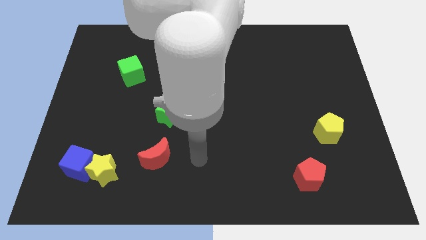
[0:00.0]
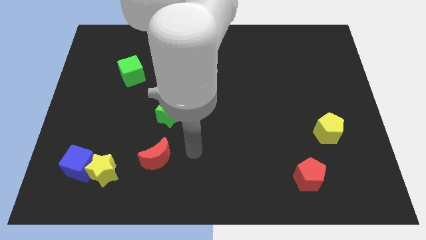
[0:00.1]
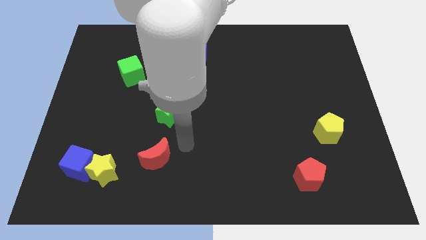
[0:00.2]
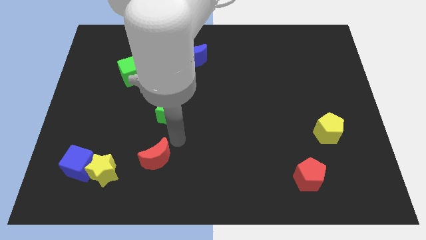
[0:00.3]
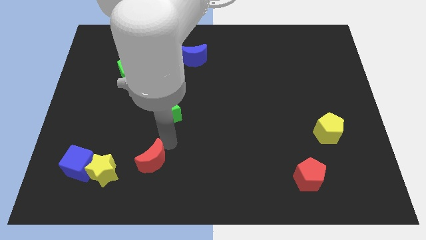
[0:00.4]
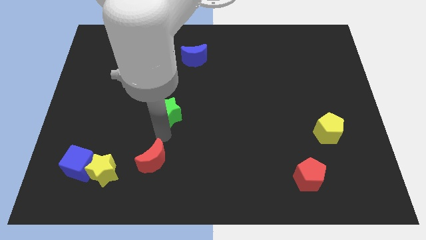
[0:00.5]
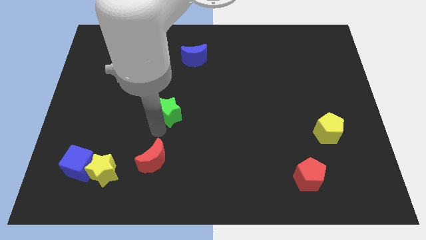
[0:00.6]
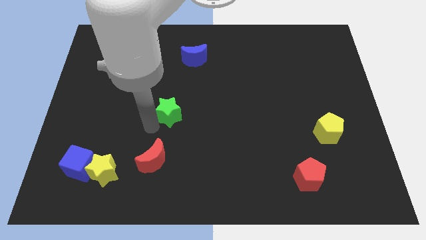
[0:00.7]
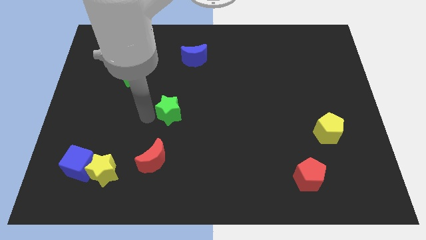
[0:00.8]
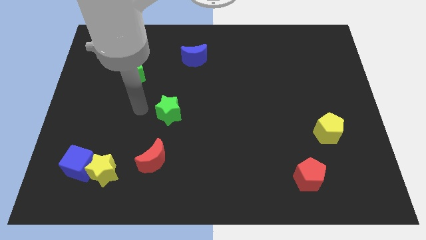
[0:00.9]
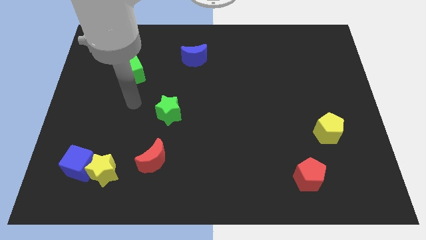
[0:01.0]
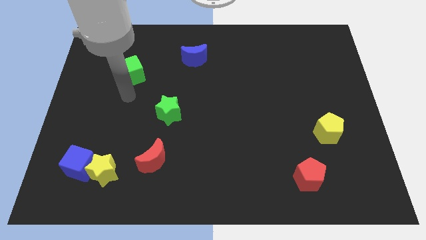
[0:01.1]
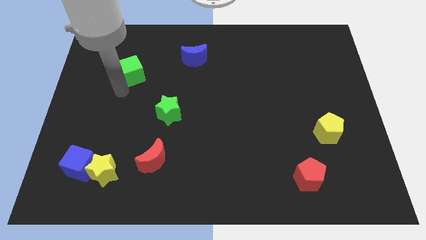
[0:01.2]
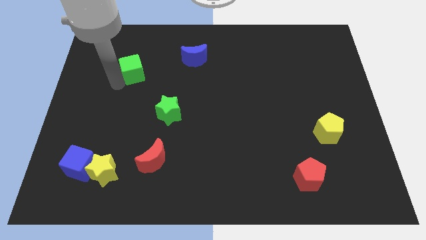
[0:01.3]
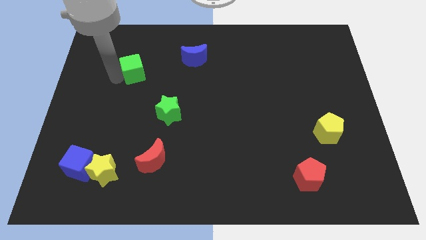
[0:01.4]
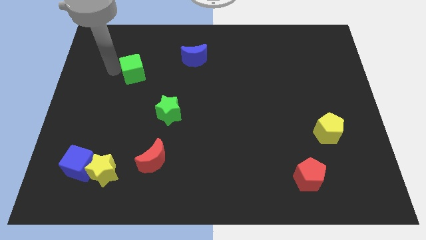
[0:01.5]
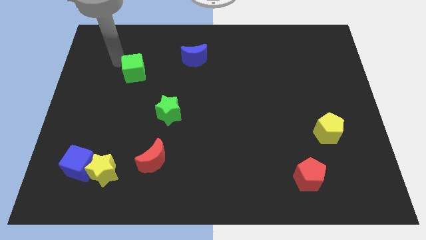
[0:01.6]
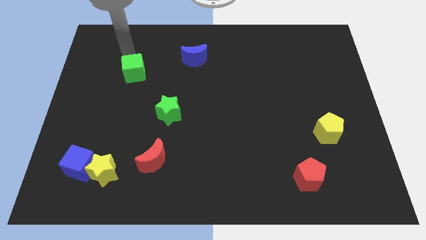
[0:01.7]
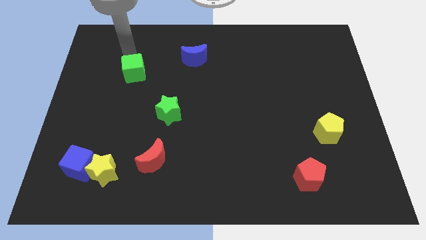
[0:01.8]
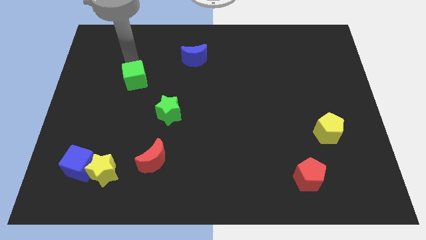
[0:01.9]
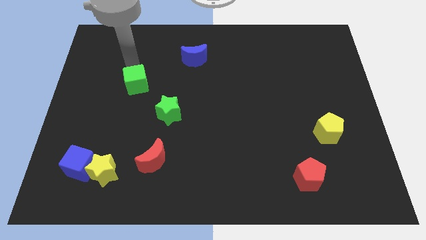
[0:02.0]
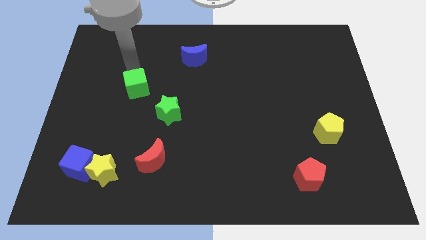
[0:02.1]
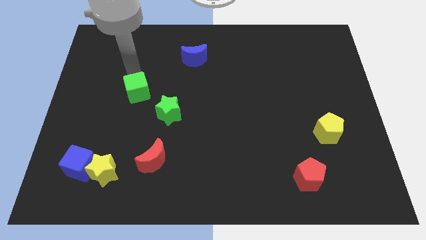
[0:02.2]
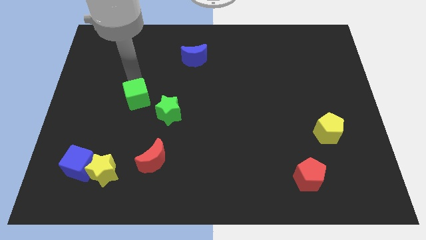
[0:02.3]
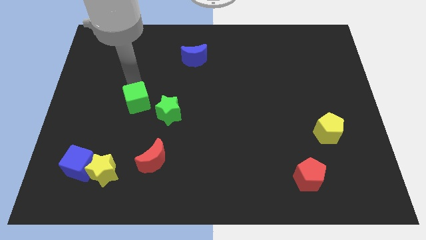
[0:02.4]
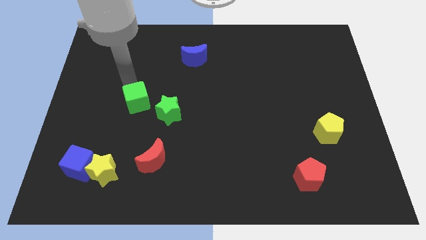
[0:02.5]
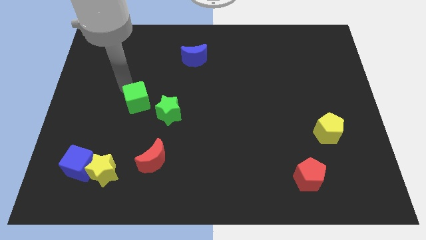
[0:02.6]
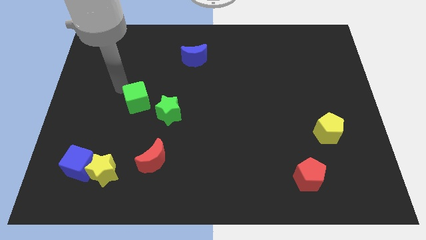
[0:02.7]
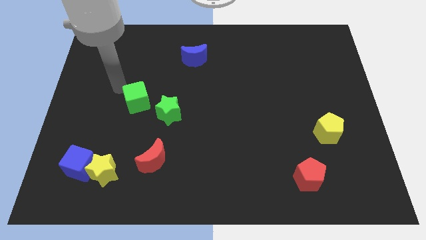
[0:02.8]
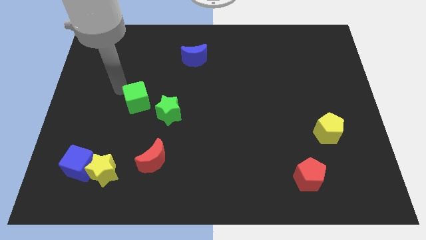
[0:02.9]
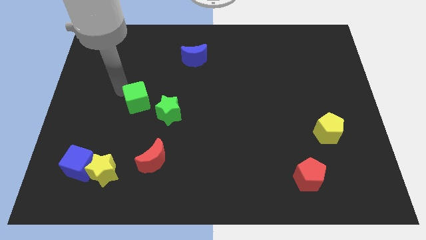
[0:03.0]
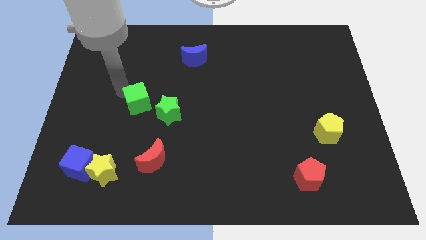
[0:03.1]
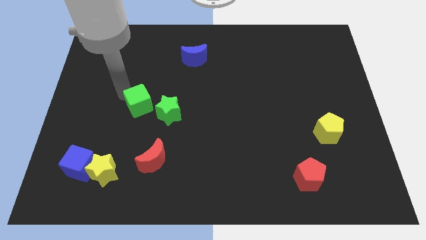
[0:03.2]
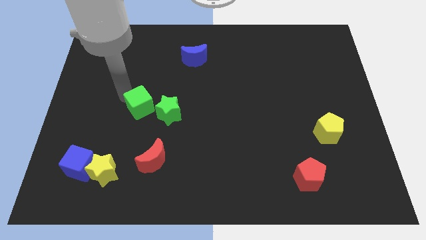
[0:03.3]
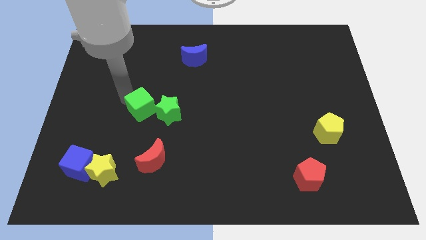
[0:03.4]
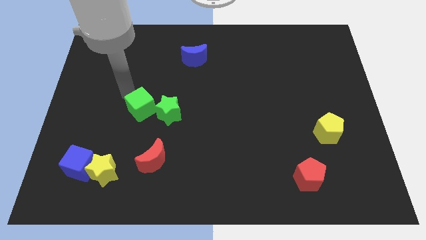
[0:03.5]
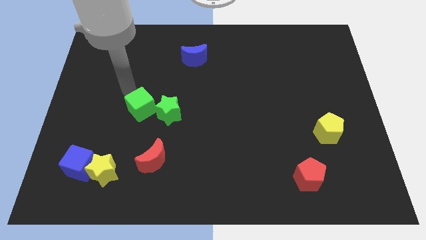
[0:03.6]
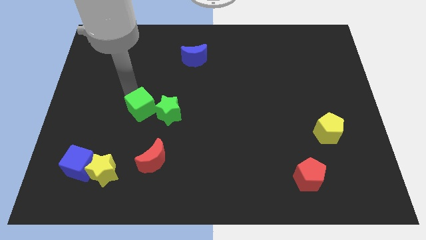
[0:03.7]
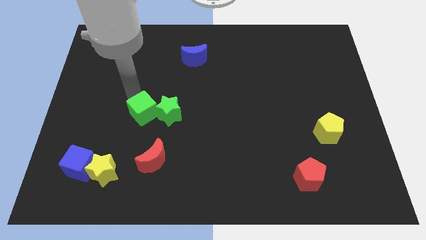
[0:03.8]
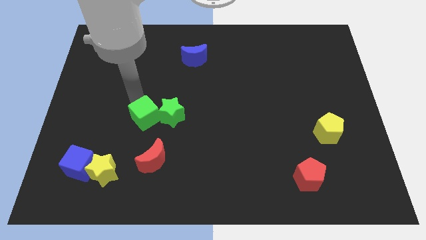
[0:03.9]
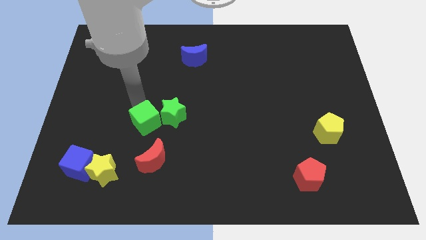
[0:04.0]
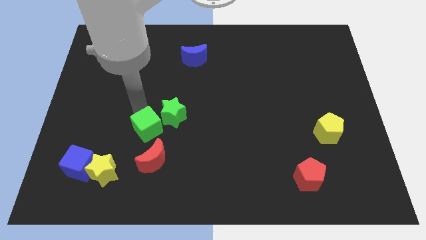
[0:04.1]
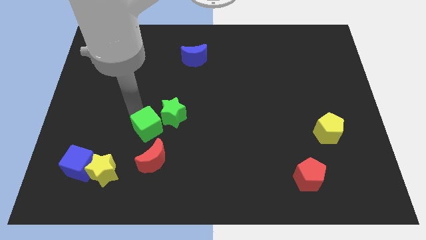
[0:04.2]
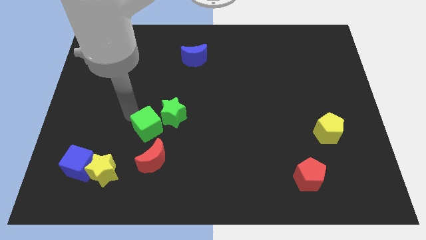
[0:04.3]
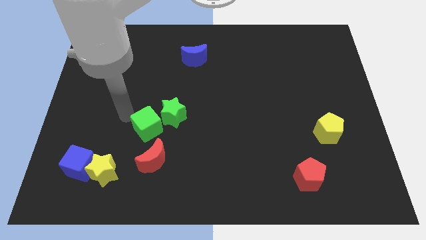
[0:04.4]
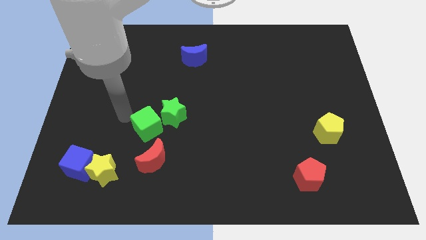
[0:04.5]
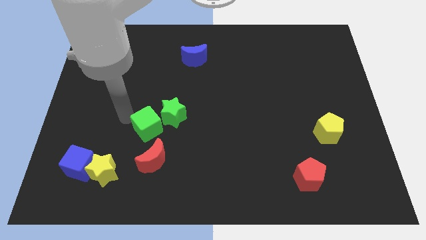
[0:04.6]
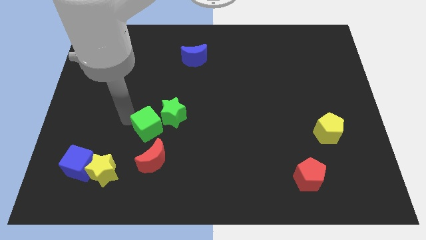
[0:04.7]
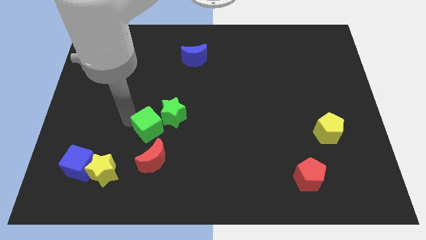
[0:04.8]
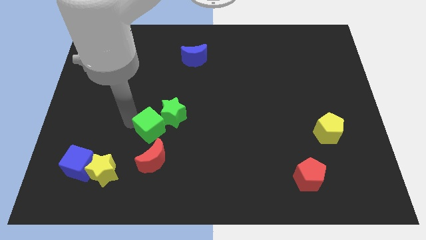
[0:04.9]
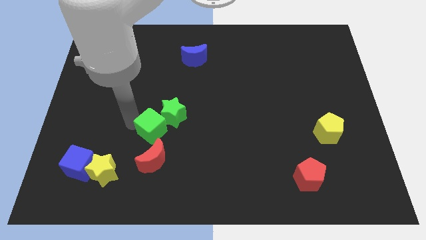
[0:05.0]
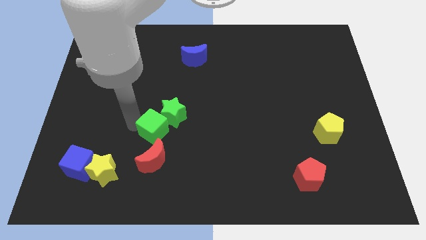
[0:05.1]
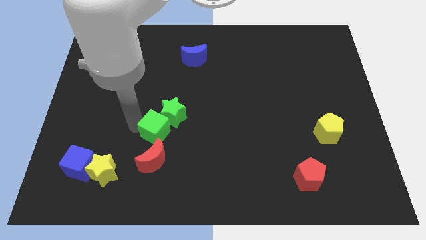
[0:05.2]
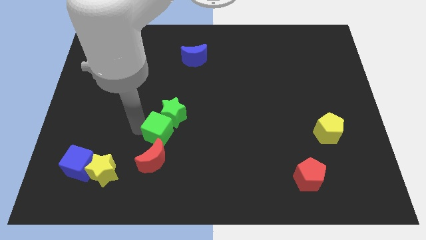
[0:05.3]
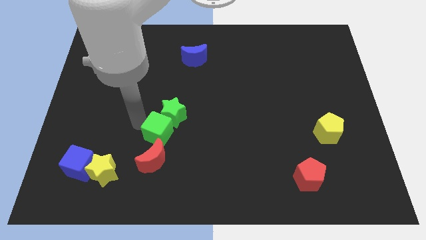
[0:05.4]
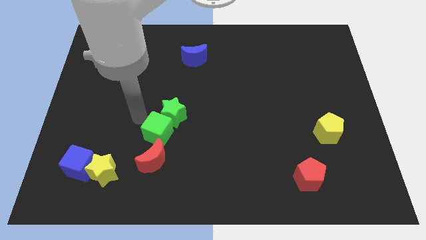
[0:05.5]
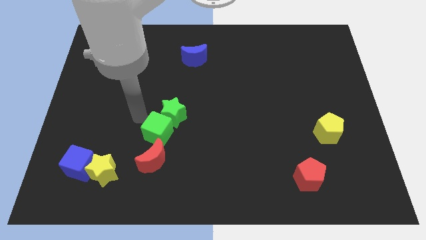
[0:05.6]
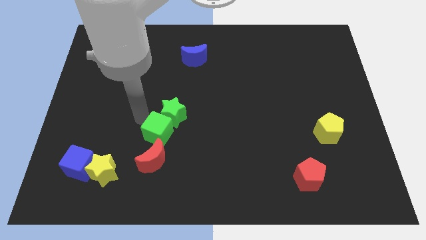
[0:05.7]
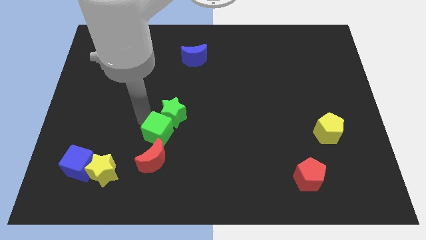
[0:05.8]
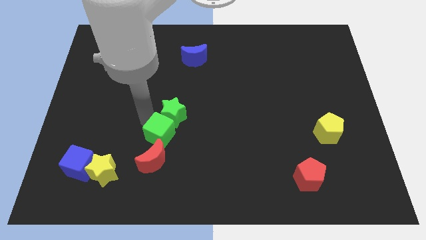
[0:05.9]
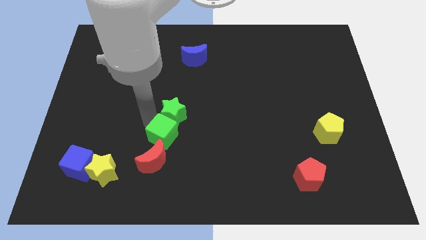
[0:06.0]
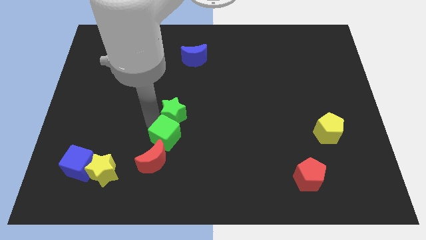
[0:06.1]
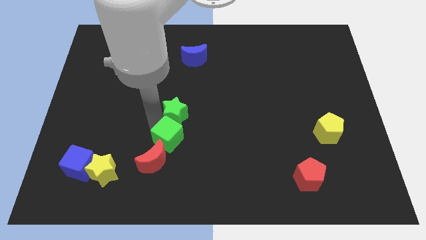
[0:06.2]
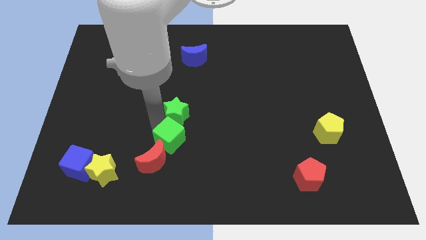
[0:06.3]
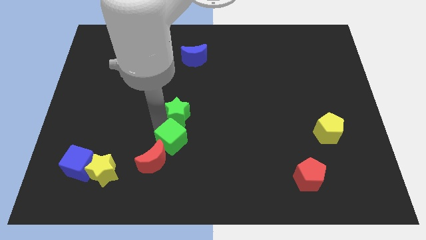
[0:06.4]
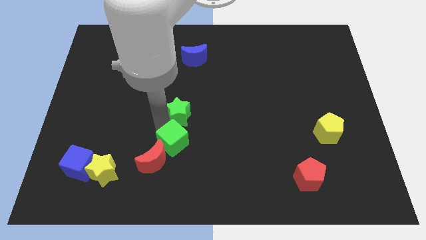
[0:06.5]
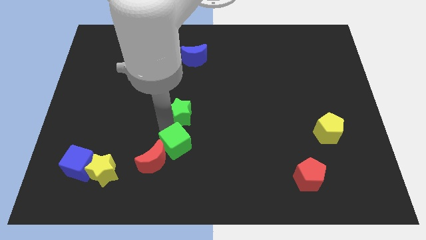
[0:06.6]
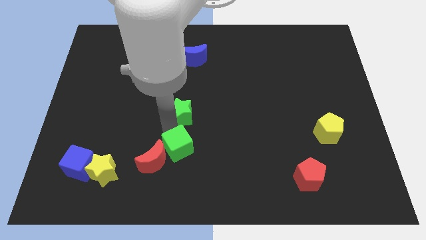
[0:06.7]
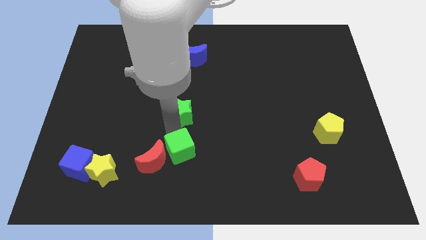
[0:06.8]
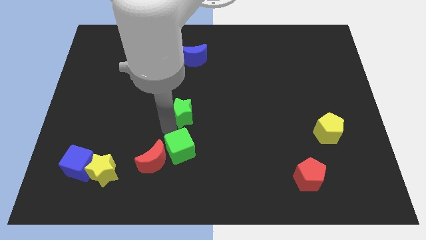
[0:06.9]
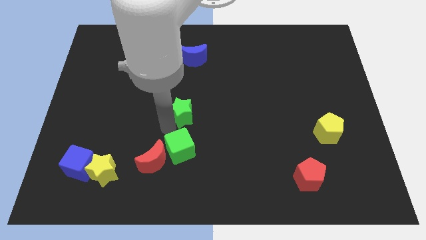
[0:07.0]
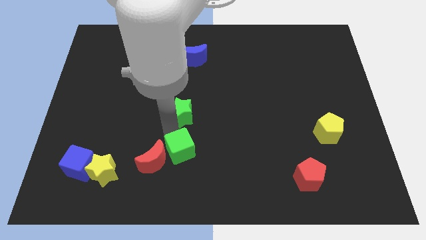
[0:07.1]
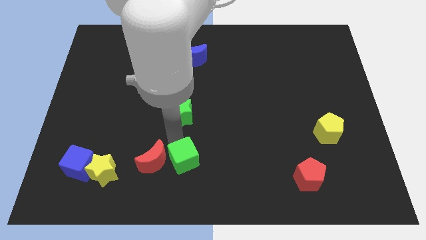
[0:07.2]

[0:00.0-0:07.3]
put the green cube to the bottom
